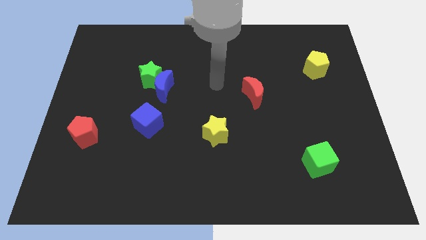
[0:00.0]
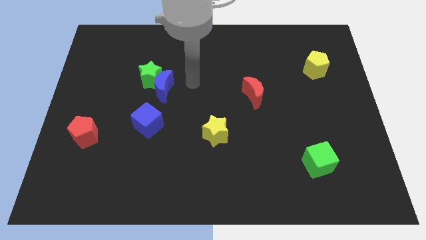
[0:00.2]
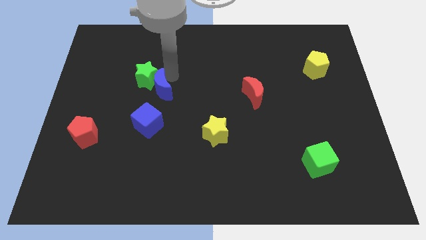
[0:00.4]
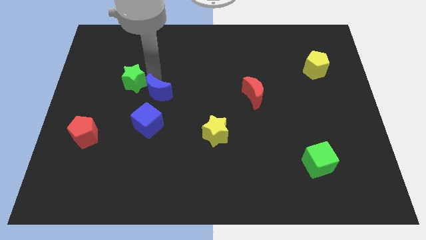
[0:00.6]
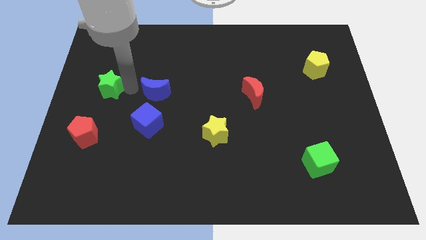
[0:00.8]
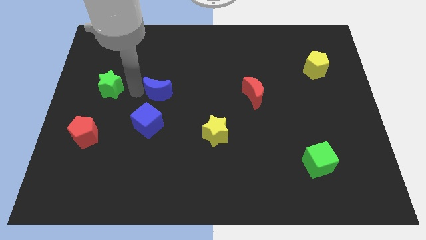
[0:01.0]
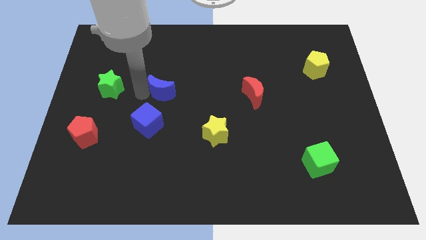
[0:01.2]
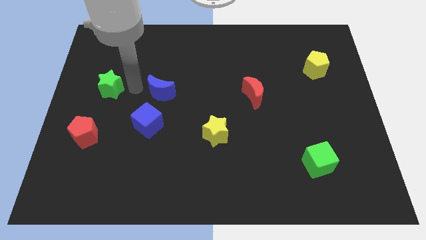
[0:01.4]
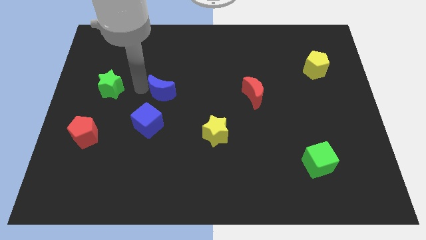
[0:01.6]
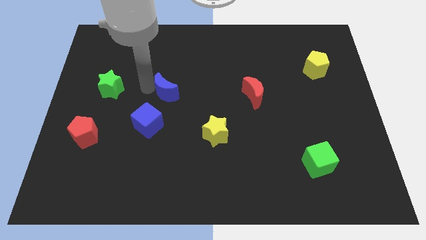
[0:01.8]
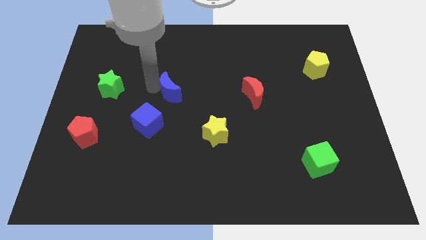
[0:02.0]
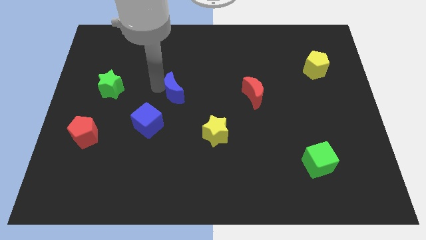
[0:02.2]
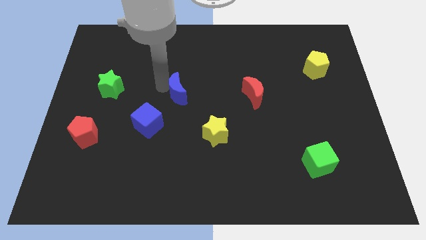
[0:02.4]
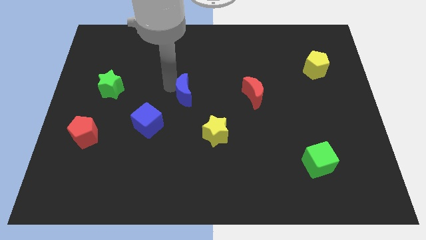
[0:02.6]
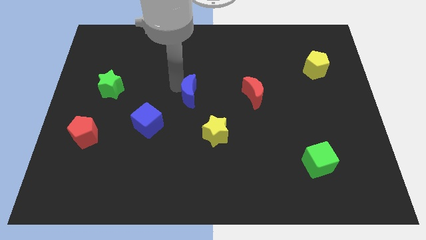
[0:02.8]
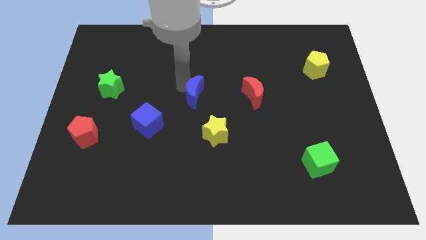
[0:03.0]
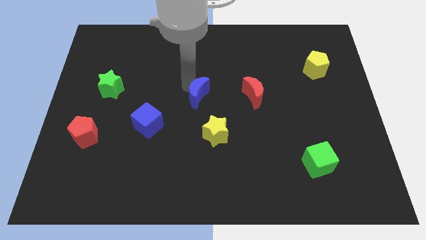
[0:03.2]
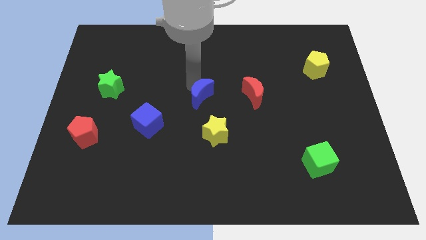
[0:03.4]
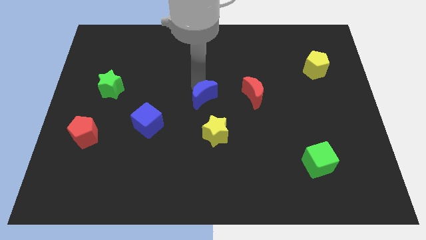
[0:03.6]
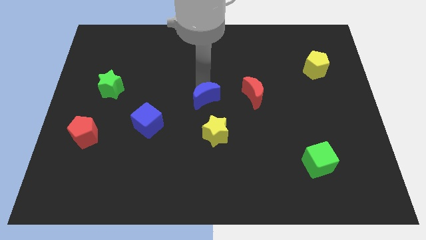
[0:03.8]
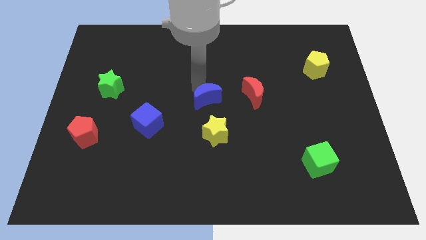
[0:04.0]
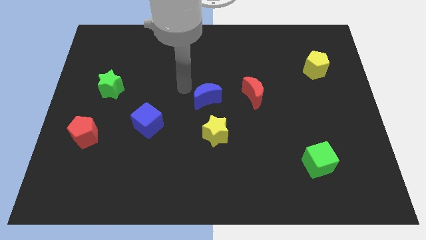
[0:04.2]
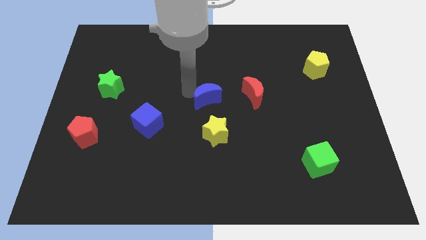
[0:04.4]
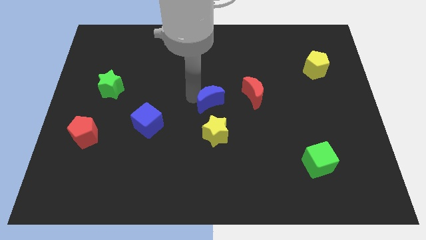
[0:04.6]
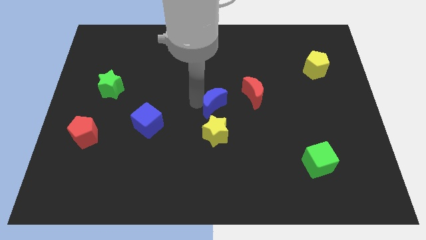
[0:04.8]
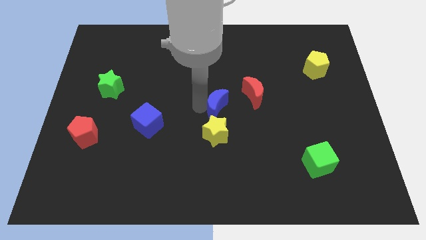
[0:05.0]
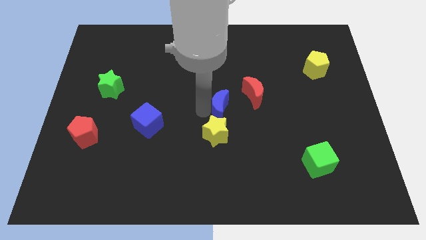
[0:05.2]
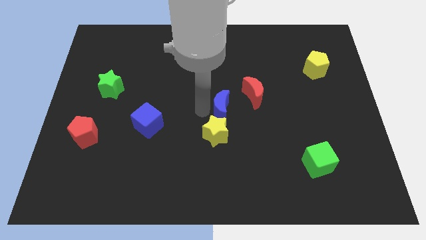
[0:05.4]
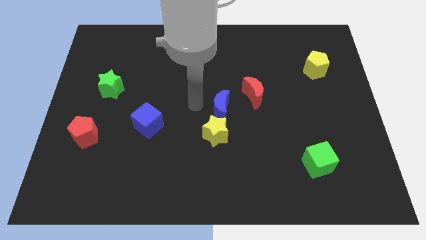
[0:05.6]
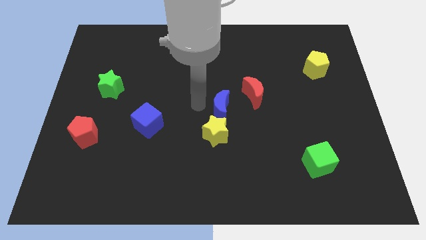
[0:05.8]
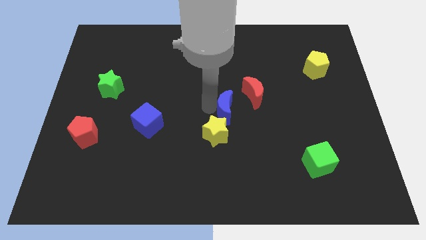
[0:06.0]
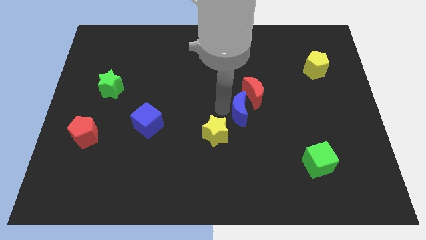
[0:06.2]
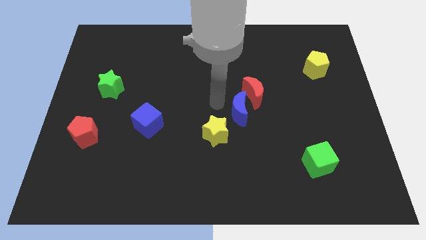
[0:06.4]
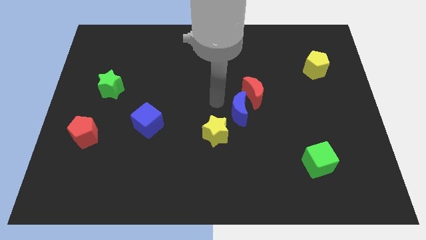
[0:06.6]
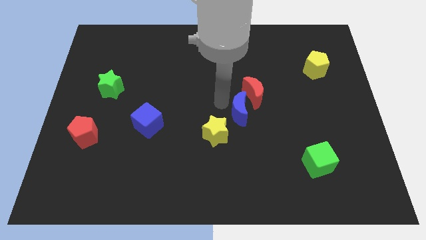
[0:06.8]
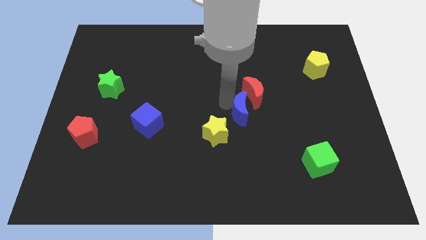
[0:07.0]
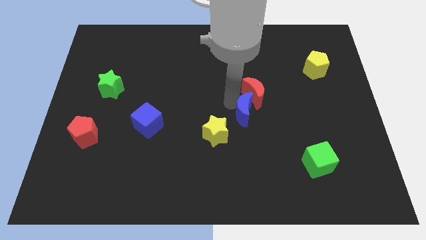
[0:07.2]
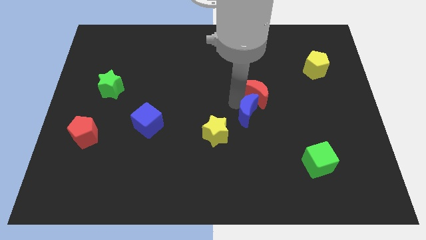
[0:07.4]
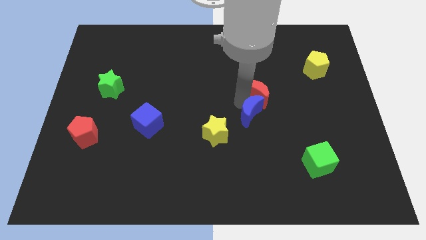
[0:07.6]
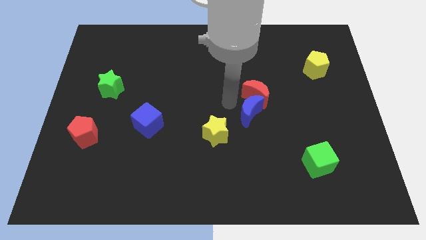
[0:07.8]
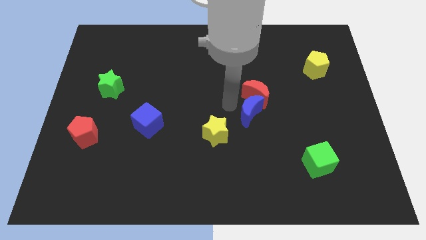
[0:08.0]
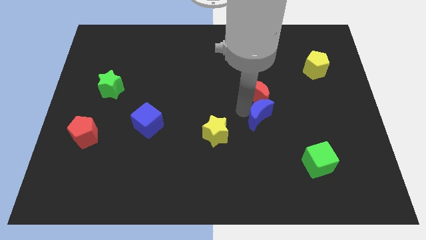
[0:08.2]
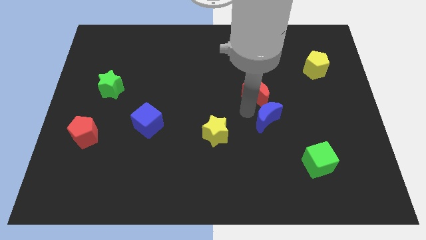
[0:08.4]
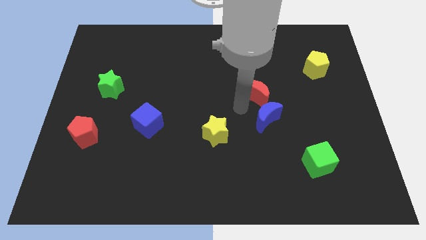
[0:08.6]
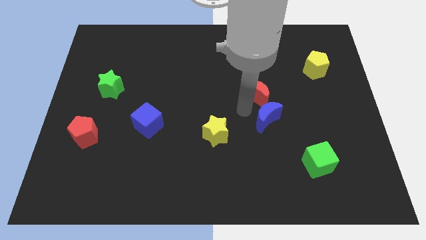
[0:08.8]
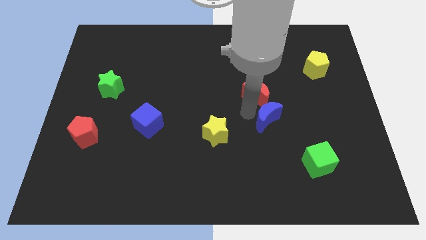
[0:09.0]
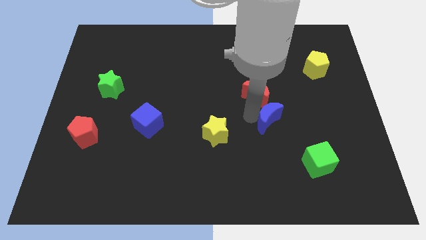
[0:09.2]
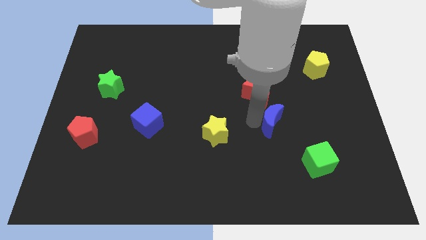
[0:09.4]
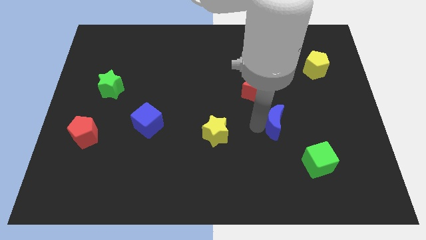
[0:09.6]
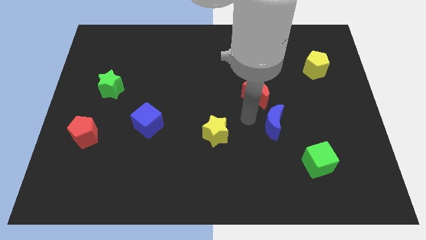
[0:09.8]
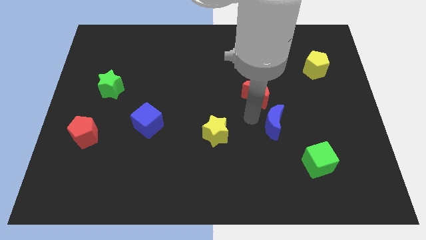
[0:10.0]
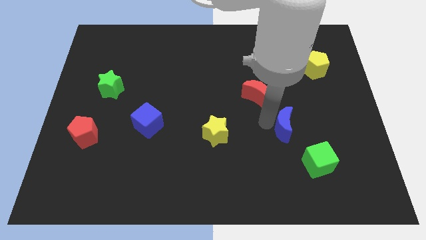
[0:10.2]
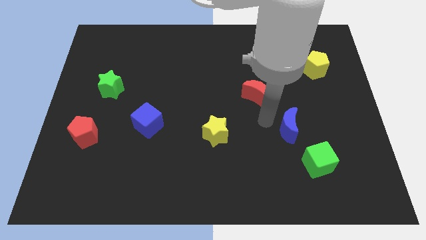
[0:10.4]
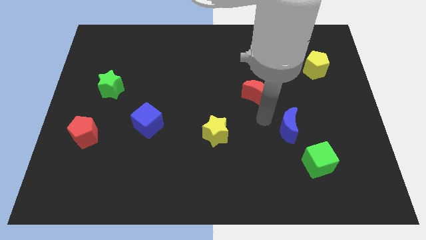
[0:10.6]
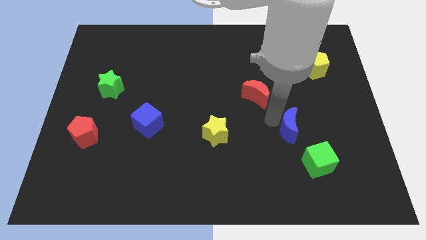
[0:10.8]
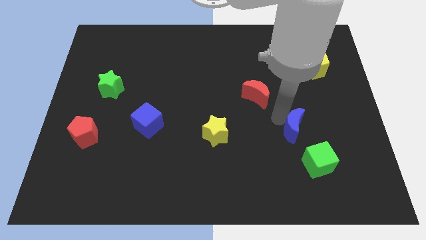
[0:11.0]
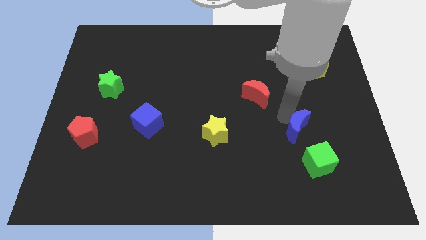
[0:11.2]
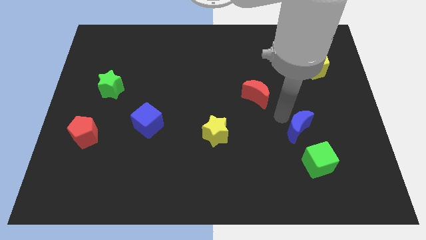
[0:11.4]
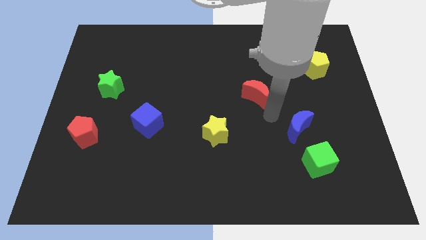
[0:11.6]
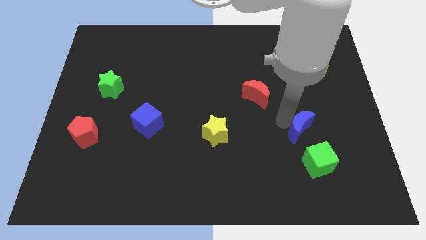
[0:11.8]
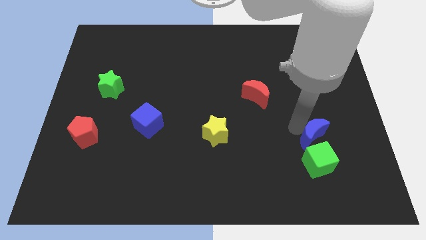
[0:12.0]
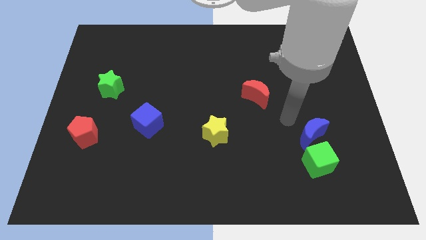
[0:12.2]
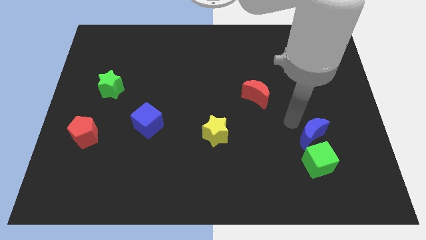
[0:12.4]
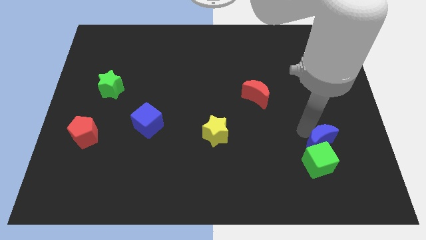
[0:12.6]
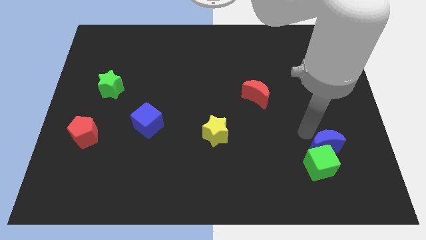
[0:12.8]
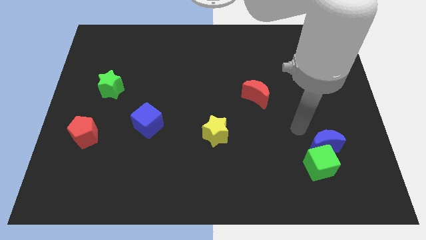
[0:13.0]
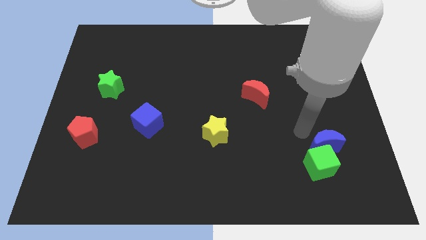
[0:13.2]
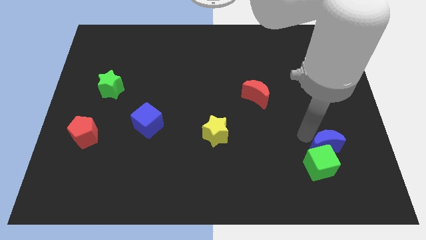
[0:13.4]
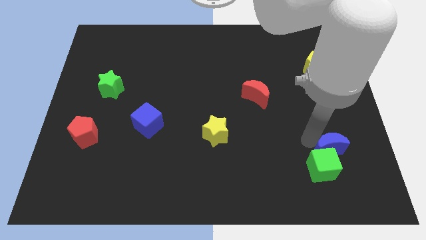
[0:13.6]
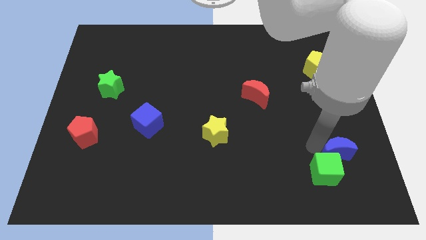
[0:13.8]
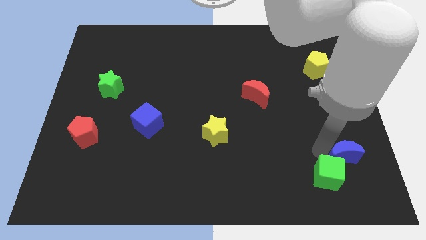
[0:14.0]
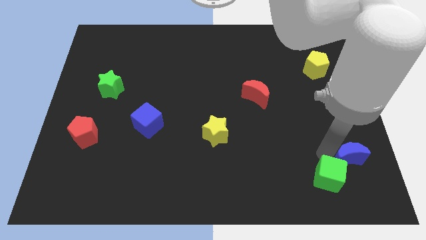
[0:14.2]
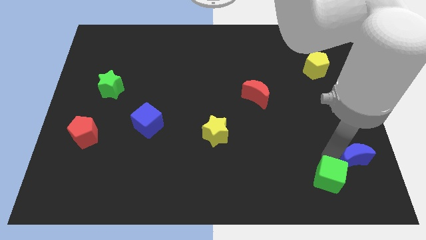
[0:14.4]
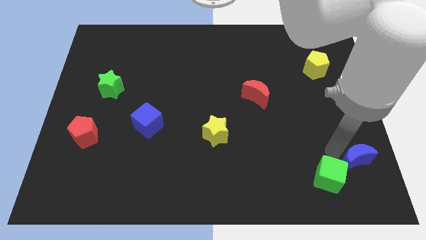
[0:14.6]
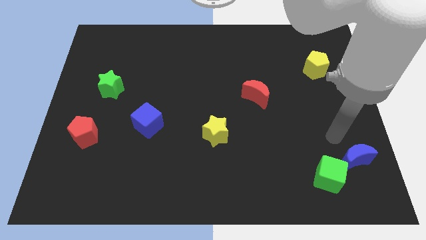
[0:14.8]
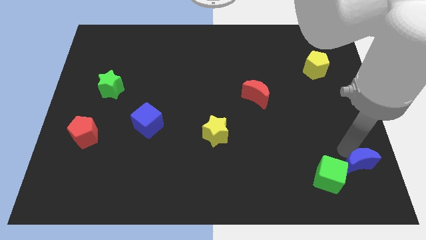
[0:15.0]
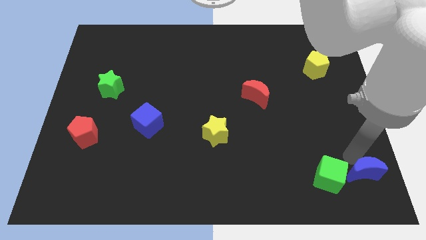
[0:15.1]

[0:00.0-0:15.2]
put the blue moon to the bottom right
